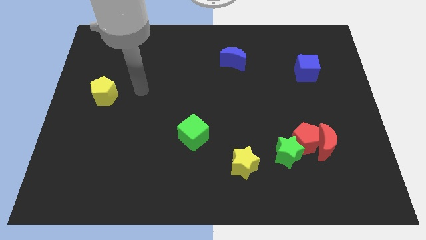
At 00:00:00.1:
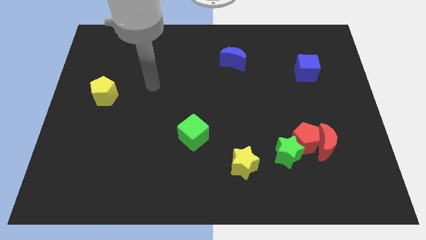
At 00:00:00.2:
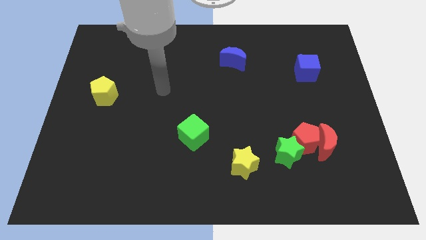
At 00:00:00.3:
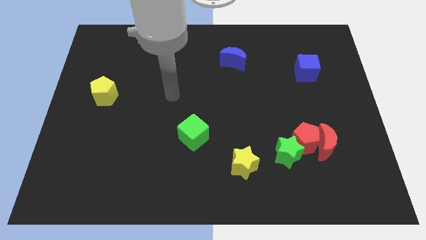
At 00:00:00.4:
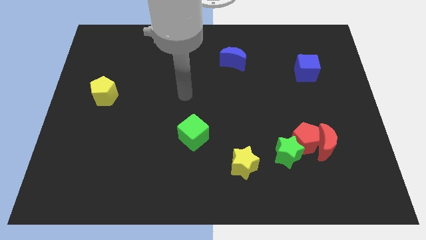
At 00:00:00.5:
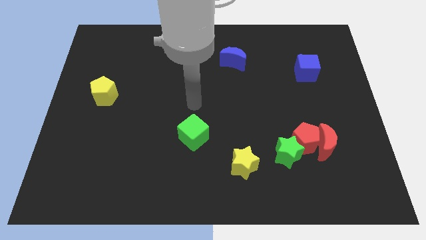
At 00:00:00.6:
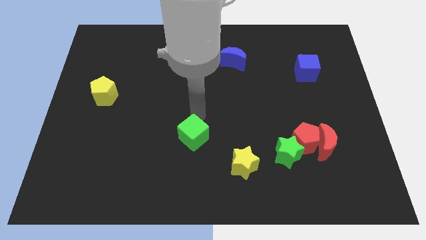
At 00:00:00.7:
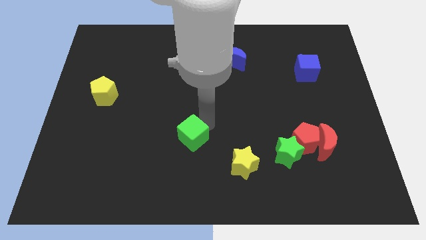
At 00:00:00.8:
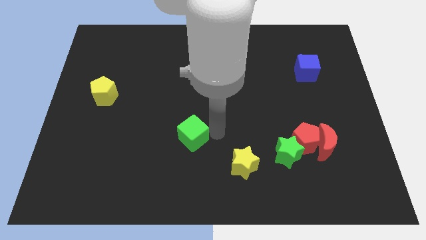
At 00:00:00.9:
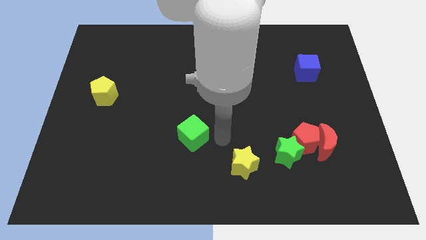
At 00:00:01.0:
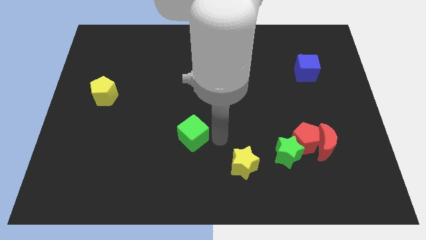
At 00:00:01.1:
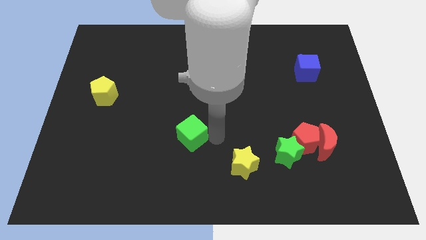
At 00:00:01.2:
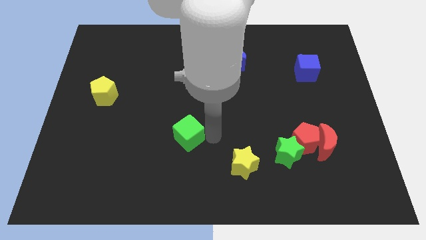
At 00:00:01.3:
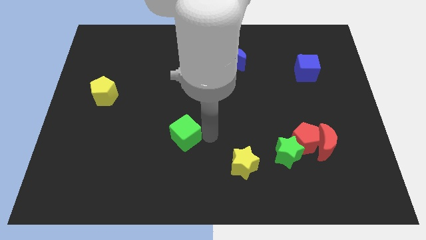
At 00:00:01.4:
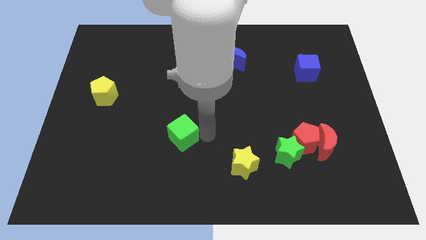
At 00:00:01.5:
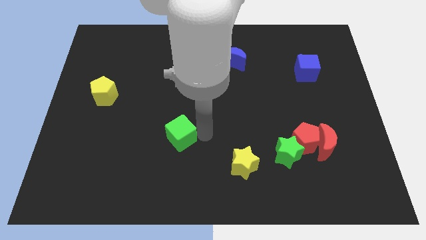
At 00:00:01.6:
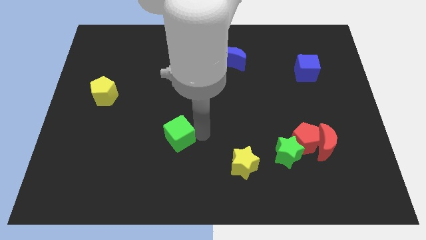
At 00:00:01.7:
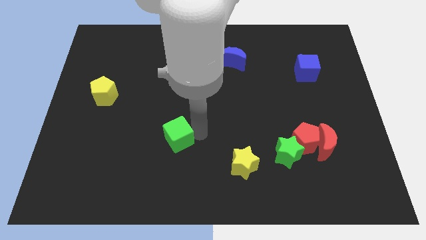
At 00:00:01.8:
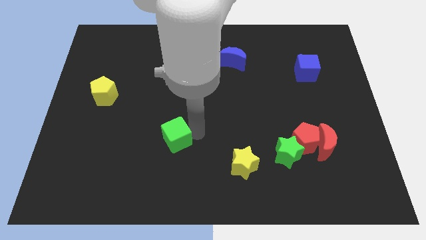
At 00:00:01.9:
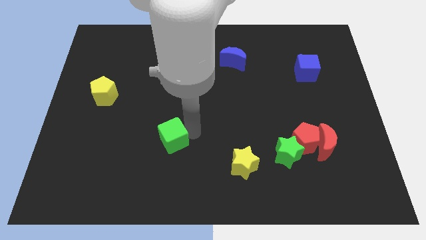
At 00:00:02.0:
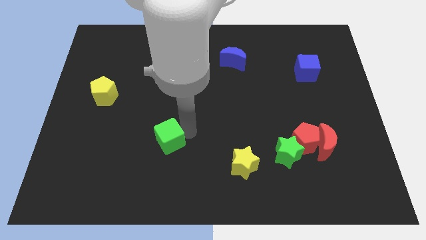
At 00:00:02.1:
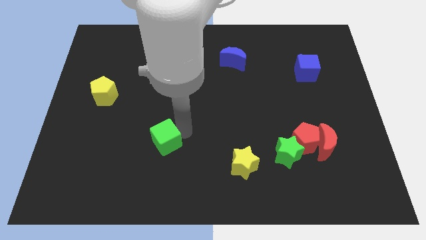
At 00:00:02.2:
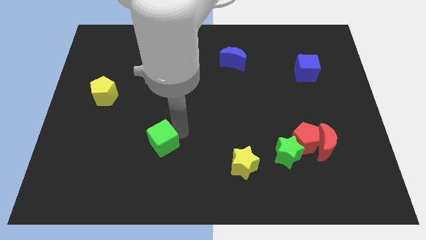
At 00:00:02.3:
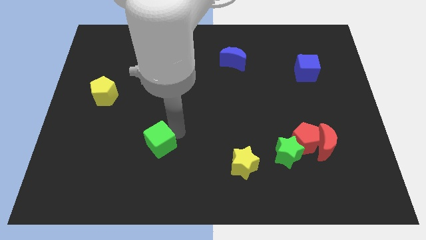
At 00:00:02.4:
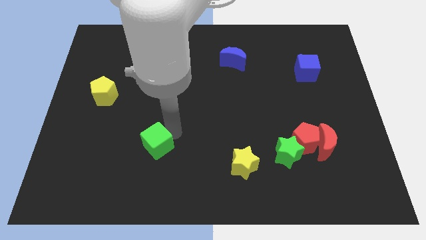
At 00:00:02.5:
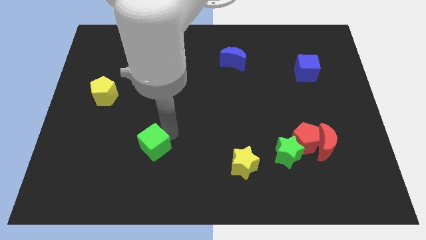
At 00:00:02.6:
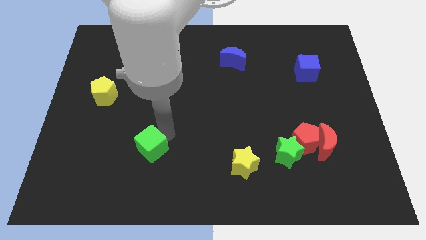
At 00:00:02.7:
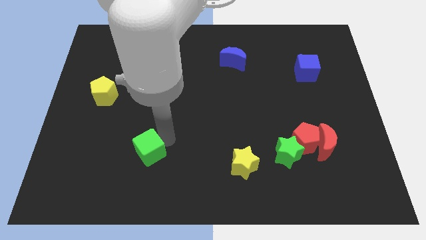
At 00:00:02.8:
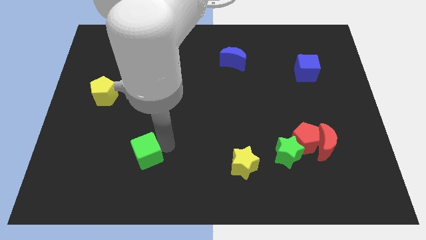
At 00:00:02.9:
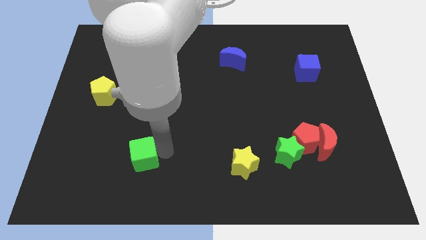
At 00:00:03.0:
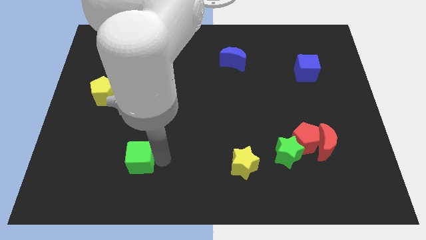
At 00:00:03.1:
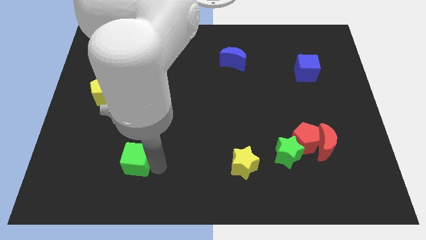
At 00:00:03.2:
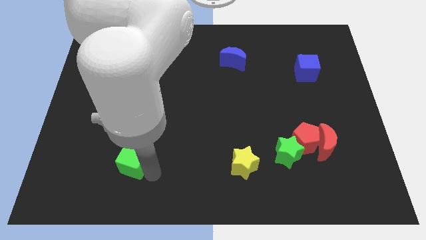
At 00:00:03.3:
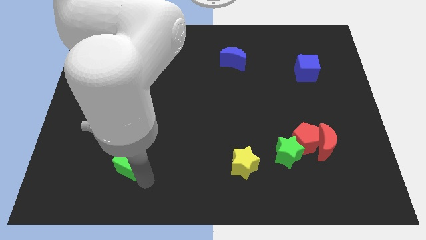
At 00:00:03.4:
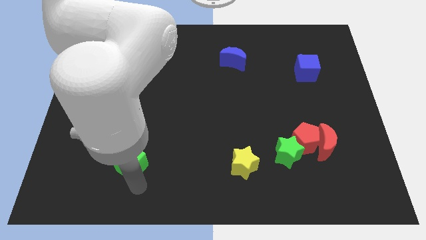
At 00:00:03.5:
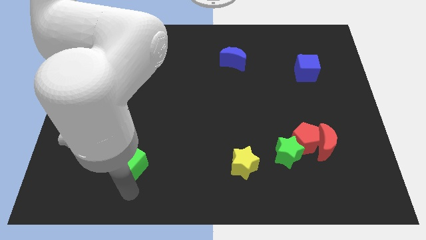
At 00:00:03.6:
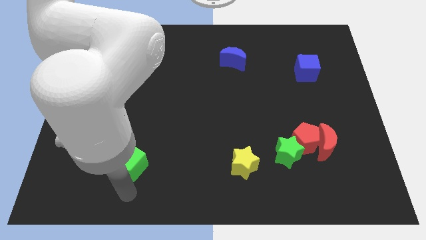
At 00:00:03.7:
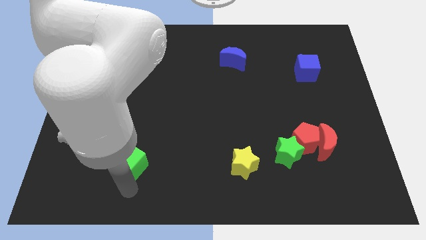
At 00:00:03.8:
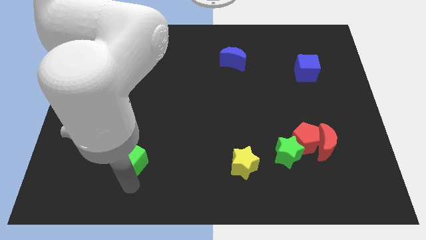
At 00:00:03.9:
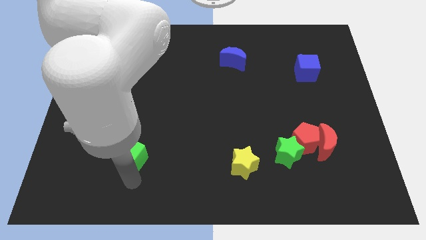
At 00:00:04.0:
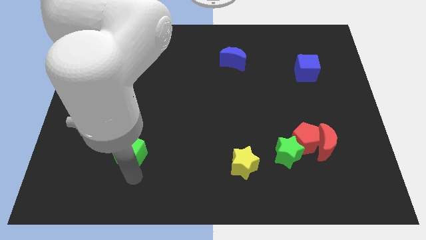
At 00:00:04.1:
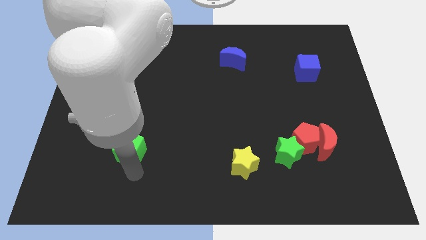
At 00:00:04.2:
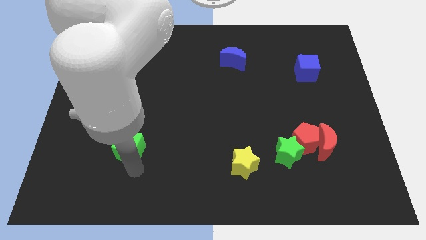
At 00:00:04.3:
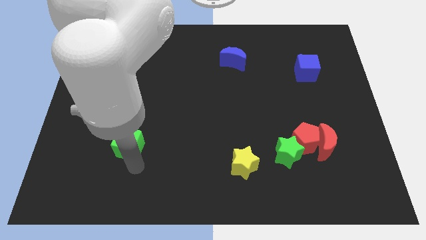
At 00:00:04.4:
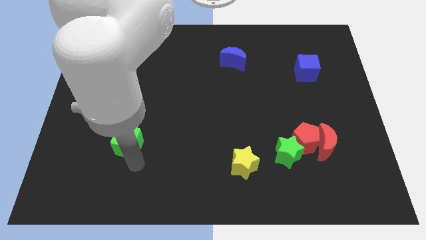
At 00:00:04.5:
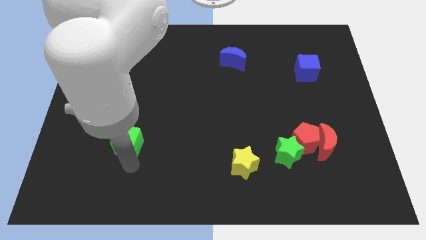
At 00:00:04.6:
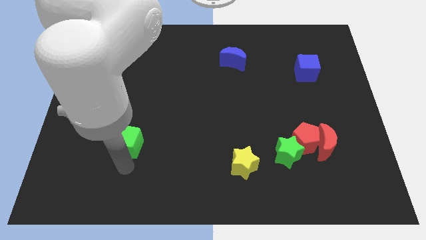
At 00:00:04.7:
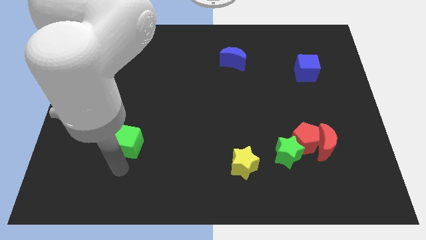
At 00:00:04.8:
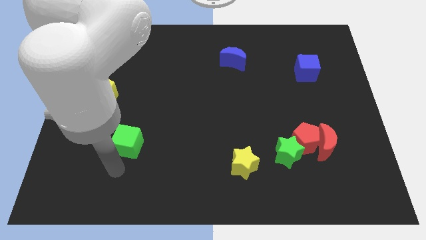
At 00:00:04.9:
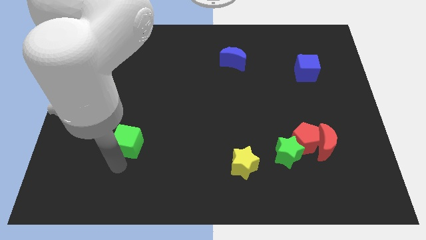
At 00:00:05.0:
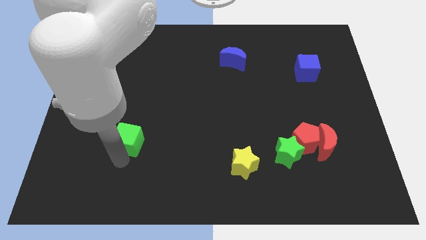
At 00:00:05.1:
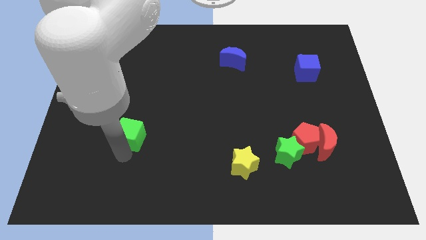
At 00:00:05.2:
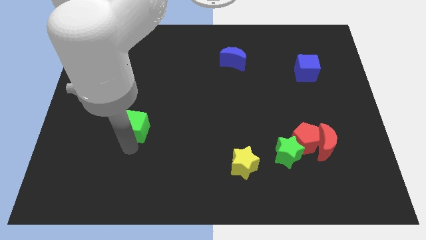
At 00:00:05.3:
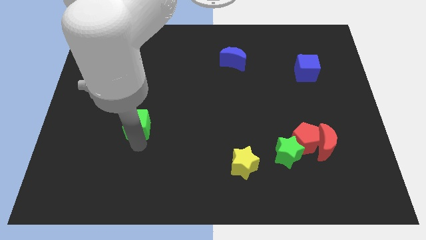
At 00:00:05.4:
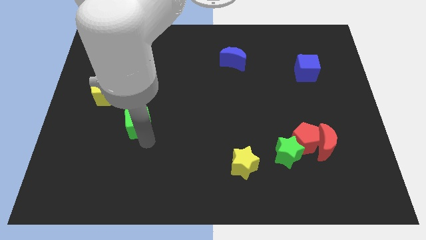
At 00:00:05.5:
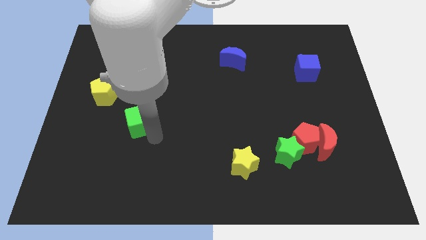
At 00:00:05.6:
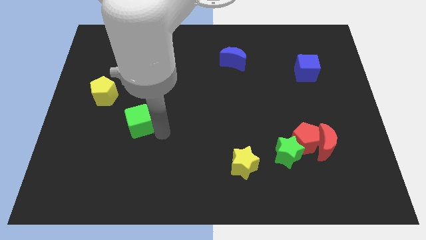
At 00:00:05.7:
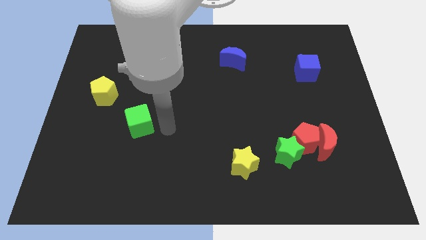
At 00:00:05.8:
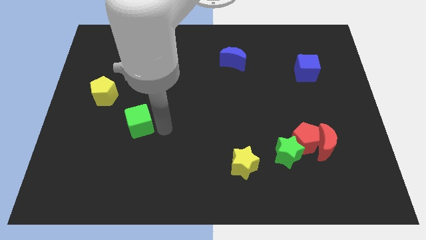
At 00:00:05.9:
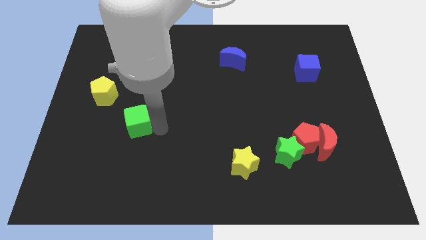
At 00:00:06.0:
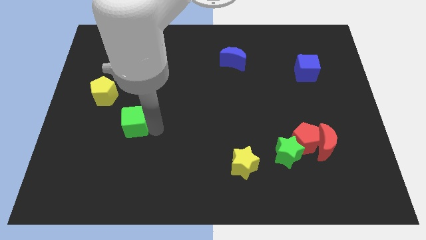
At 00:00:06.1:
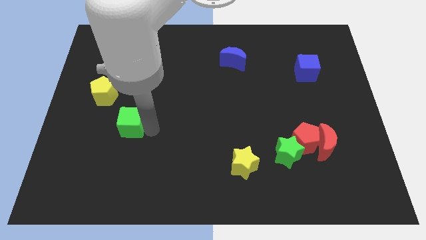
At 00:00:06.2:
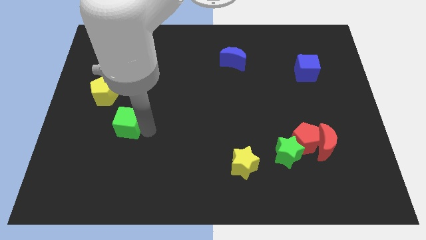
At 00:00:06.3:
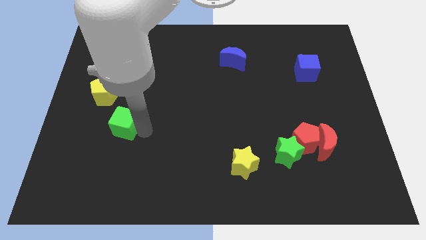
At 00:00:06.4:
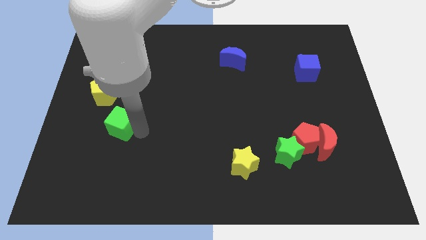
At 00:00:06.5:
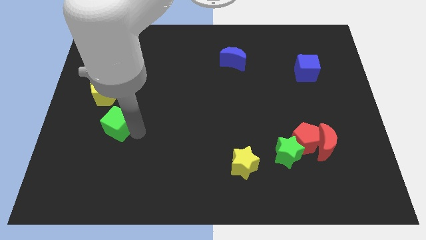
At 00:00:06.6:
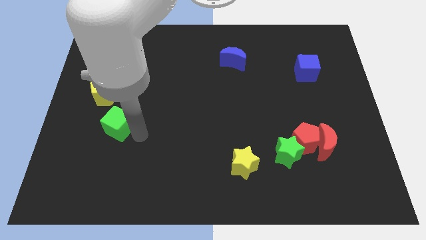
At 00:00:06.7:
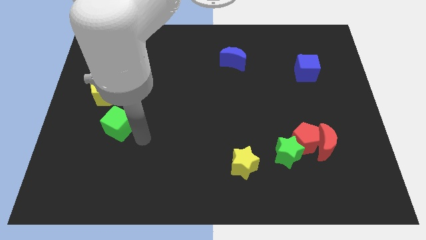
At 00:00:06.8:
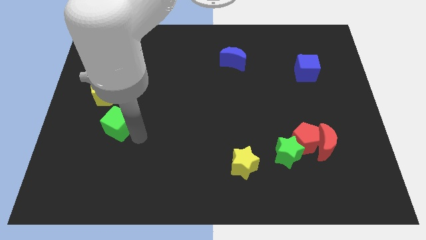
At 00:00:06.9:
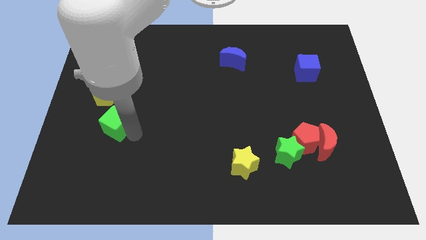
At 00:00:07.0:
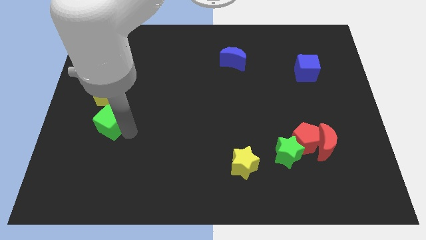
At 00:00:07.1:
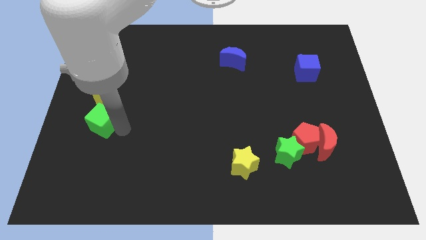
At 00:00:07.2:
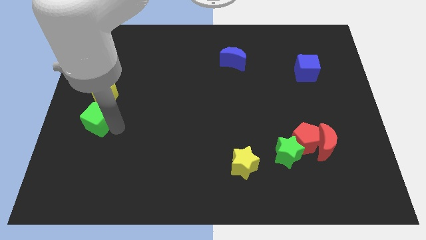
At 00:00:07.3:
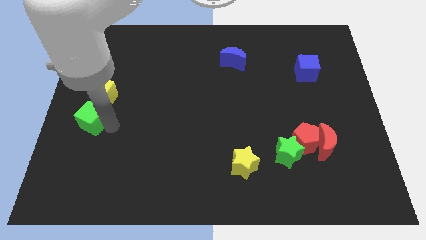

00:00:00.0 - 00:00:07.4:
move the green cube to the left side
